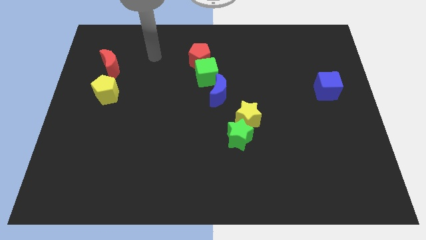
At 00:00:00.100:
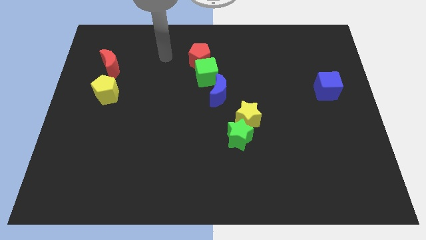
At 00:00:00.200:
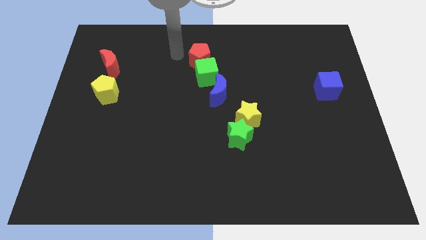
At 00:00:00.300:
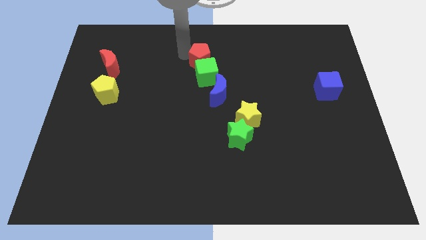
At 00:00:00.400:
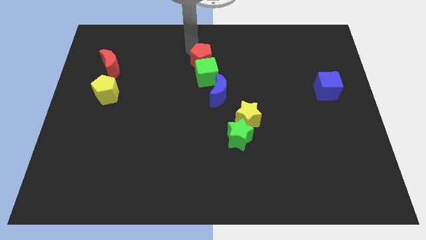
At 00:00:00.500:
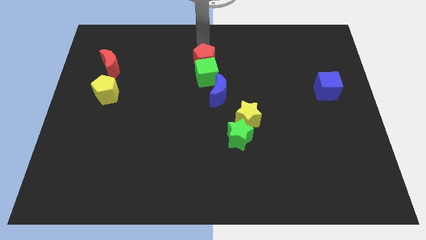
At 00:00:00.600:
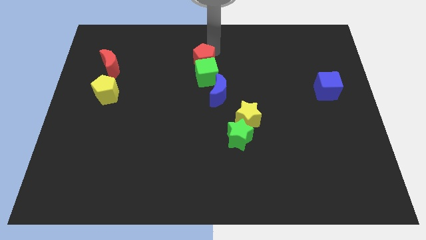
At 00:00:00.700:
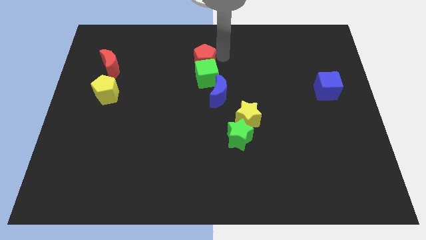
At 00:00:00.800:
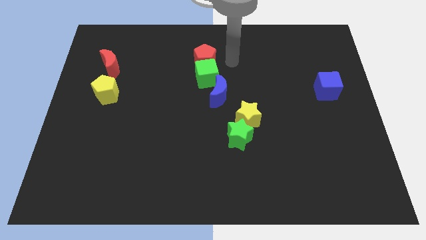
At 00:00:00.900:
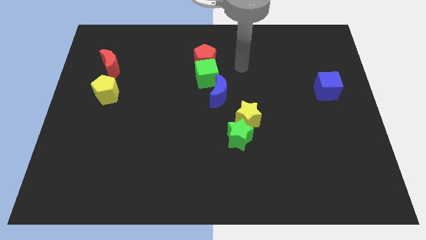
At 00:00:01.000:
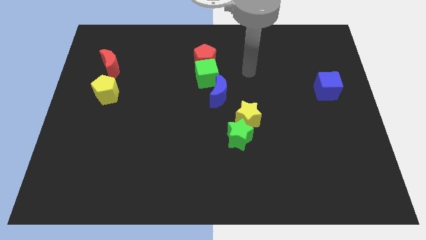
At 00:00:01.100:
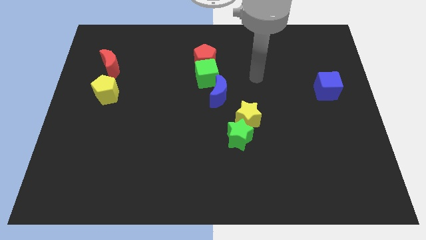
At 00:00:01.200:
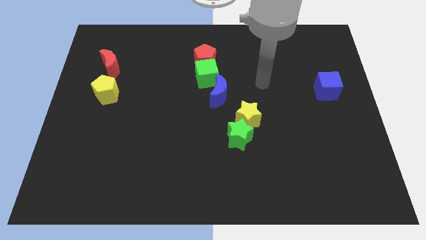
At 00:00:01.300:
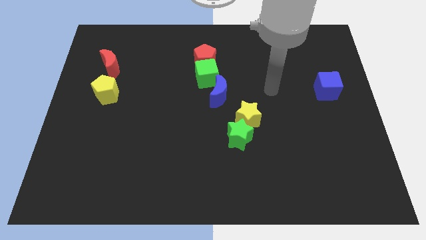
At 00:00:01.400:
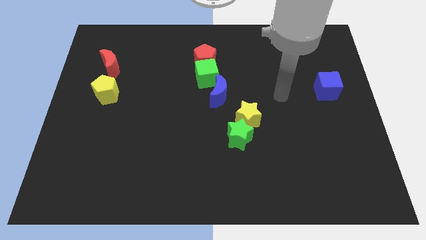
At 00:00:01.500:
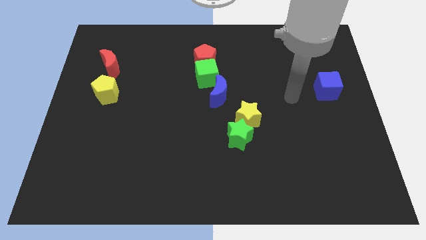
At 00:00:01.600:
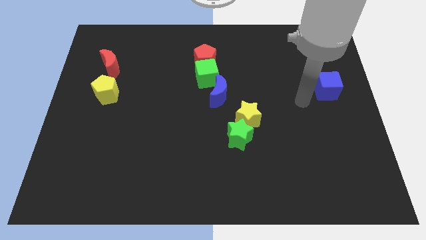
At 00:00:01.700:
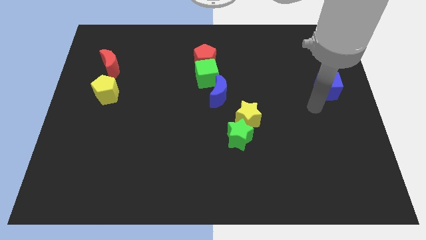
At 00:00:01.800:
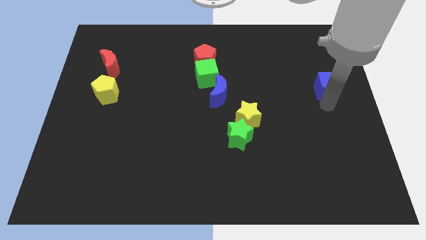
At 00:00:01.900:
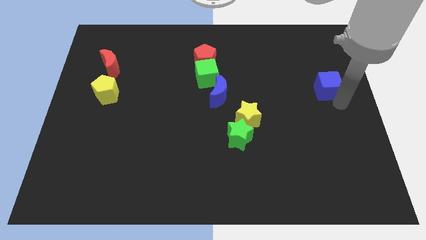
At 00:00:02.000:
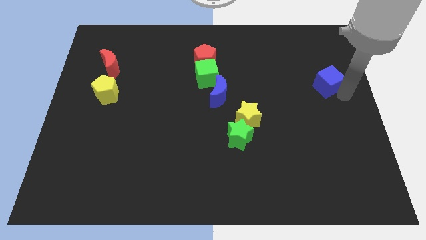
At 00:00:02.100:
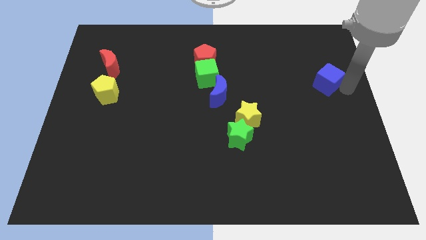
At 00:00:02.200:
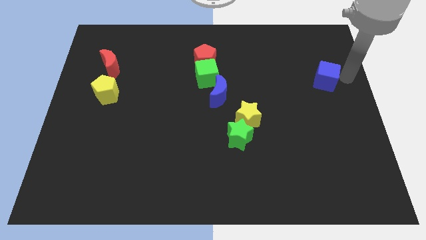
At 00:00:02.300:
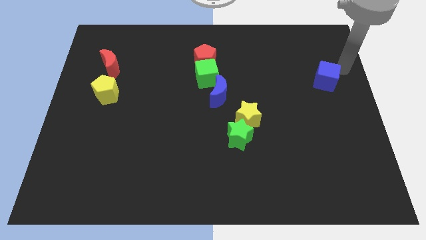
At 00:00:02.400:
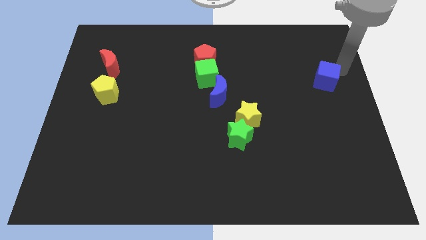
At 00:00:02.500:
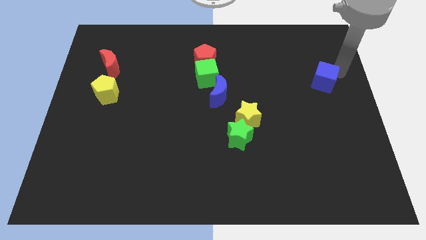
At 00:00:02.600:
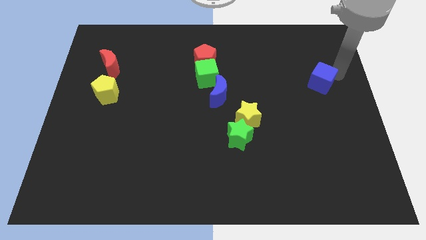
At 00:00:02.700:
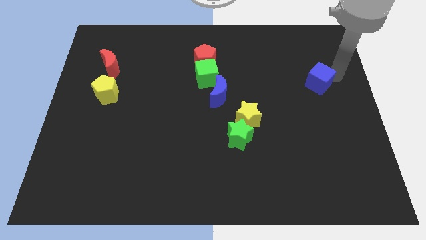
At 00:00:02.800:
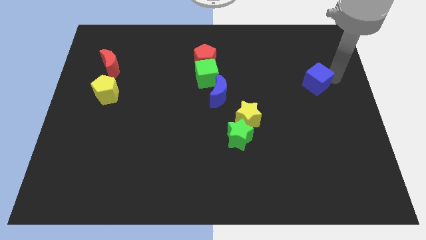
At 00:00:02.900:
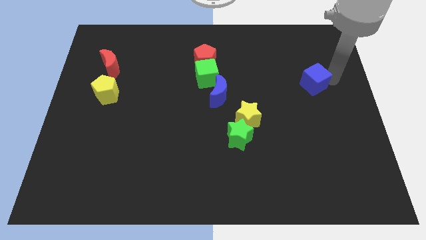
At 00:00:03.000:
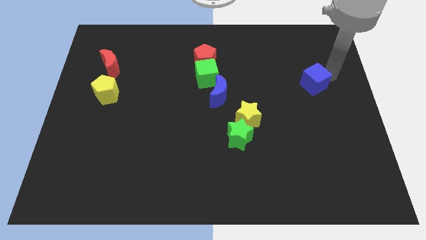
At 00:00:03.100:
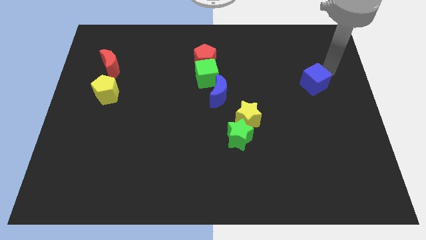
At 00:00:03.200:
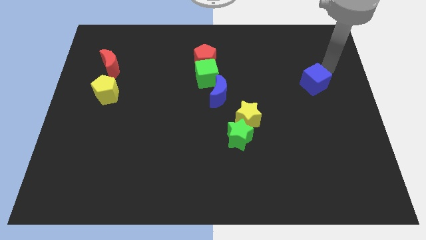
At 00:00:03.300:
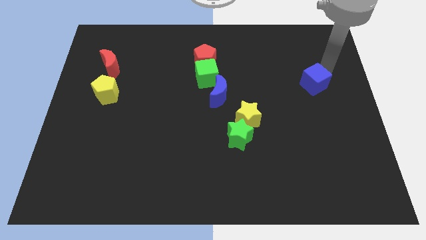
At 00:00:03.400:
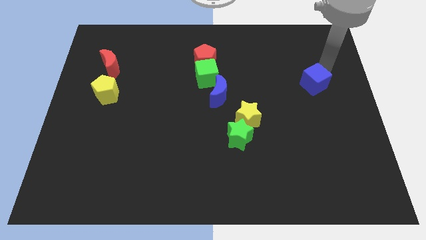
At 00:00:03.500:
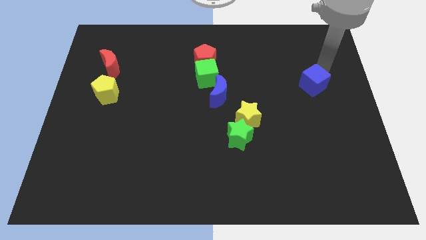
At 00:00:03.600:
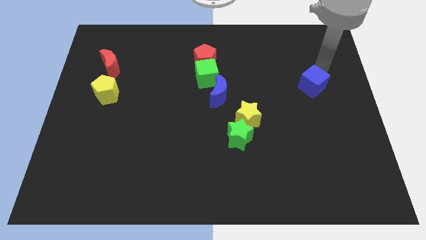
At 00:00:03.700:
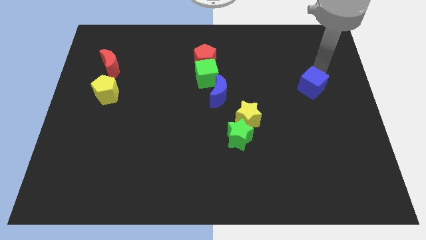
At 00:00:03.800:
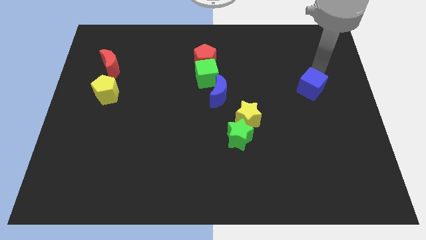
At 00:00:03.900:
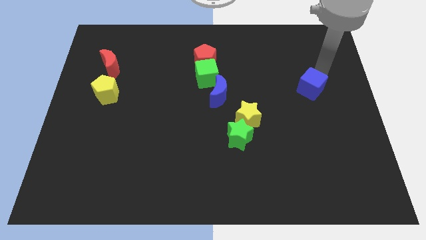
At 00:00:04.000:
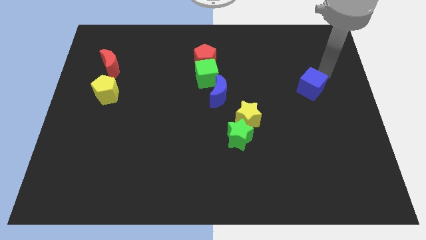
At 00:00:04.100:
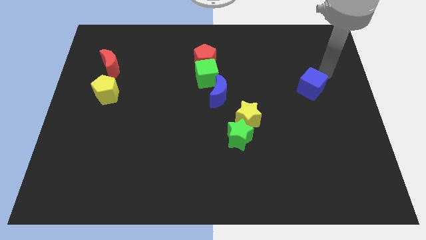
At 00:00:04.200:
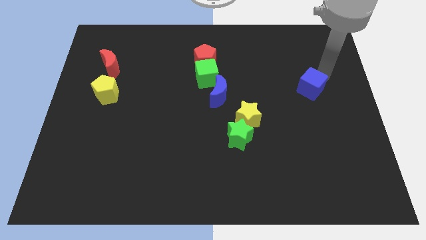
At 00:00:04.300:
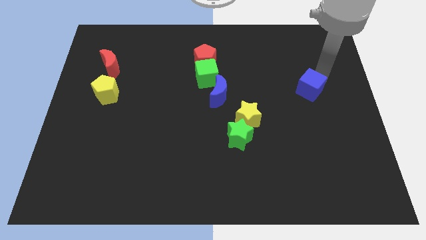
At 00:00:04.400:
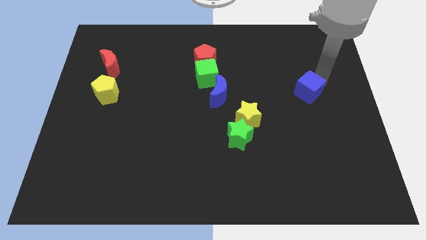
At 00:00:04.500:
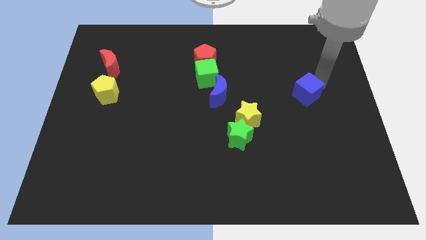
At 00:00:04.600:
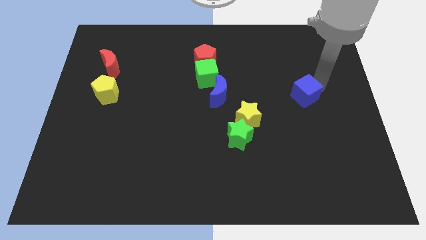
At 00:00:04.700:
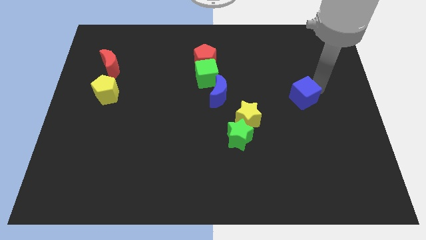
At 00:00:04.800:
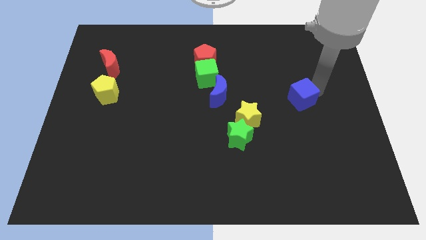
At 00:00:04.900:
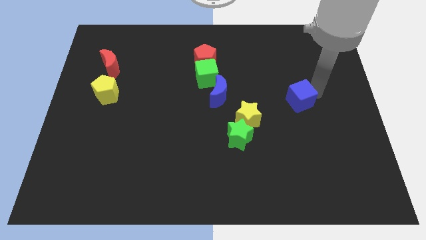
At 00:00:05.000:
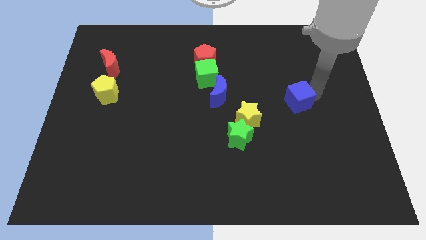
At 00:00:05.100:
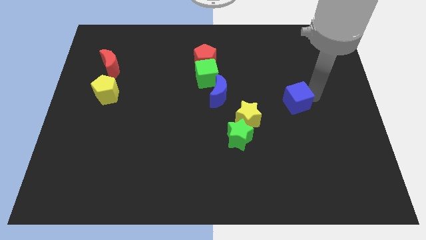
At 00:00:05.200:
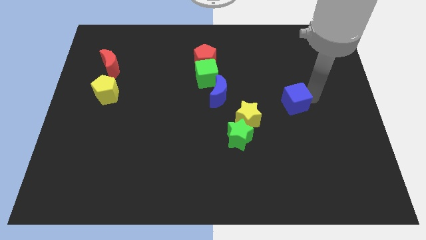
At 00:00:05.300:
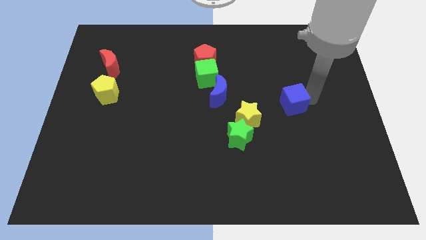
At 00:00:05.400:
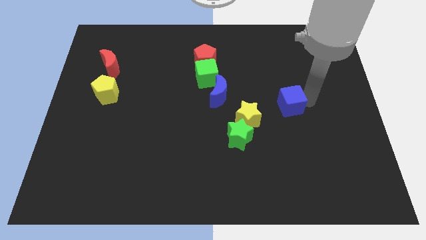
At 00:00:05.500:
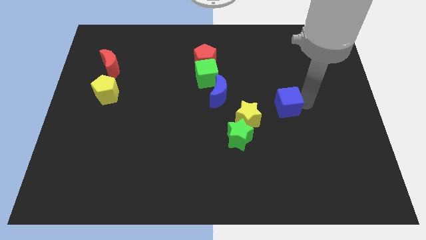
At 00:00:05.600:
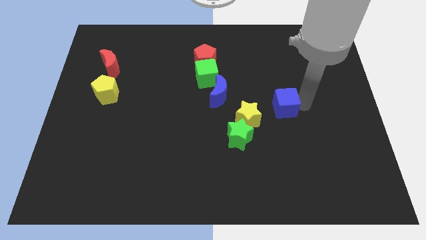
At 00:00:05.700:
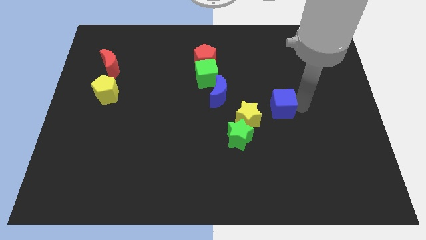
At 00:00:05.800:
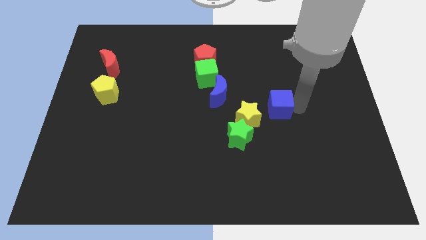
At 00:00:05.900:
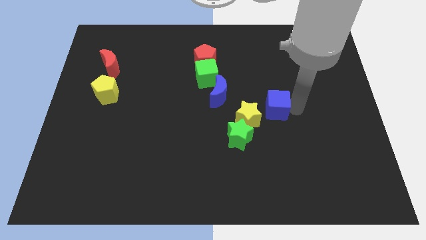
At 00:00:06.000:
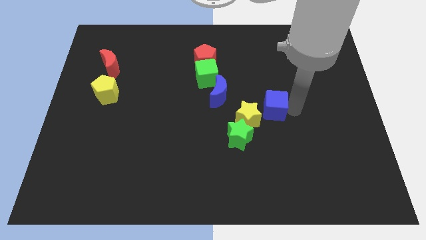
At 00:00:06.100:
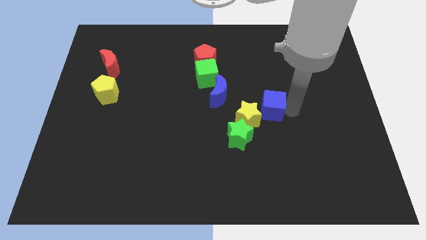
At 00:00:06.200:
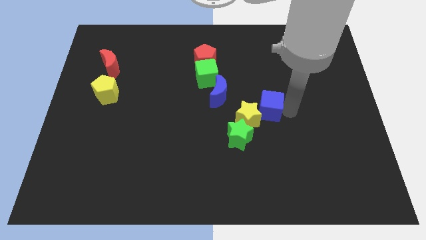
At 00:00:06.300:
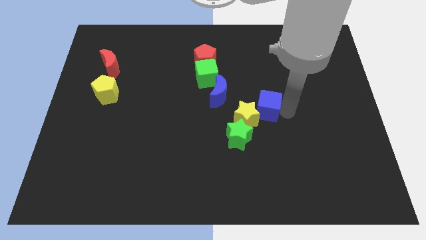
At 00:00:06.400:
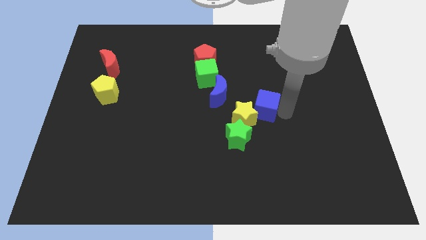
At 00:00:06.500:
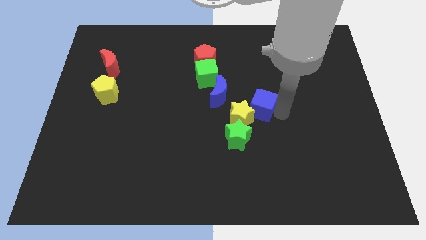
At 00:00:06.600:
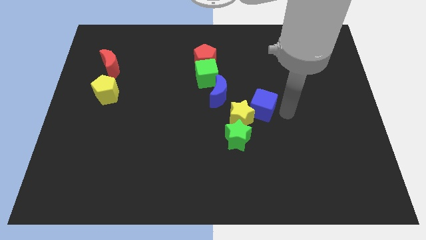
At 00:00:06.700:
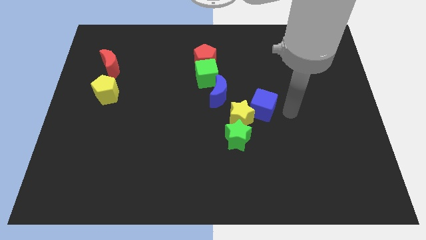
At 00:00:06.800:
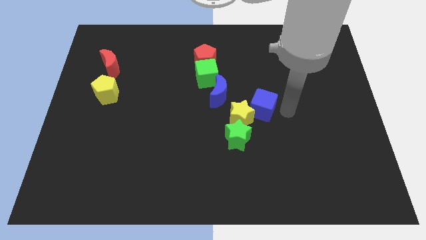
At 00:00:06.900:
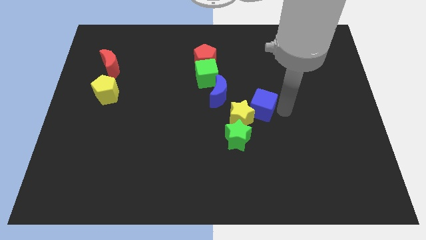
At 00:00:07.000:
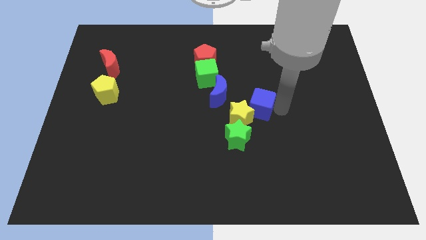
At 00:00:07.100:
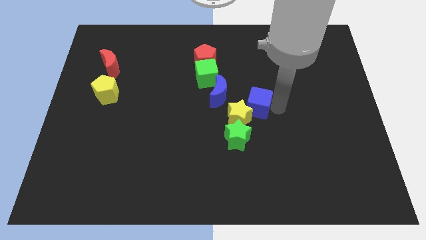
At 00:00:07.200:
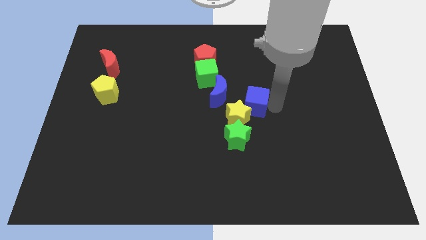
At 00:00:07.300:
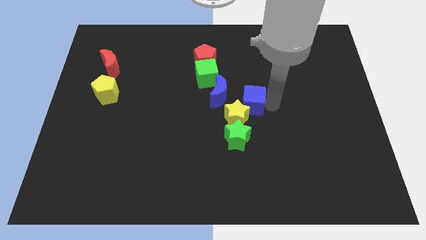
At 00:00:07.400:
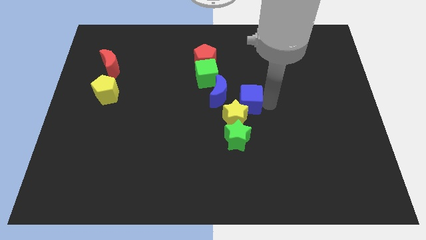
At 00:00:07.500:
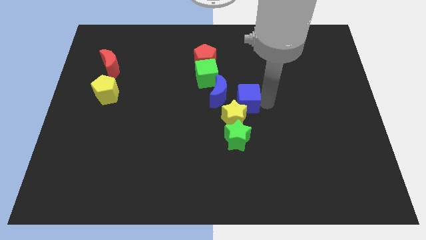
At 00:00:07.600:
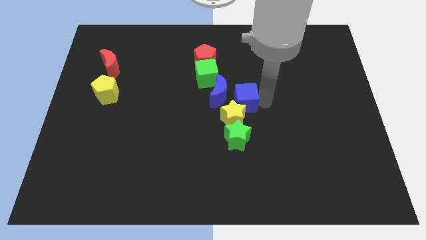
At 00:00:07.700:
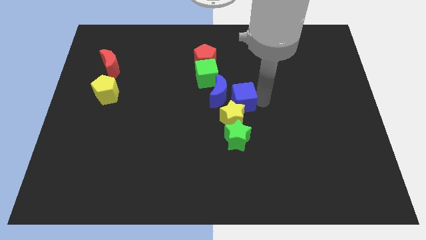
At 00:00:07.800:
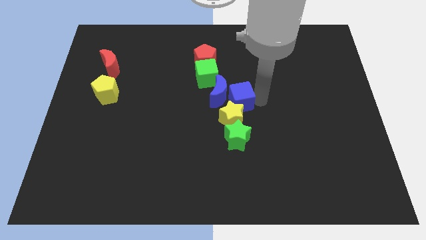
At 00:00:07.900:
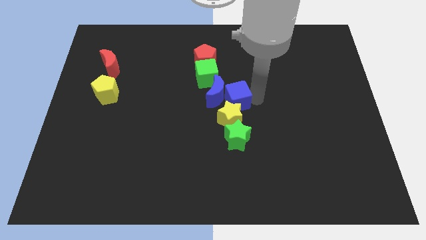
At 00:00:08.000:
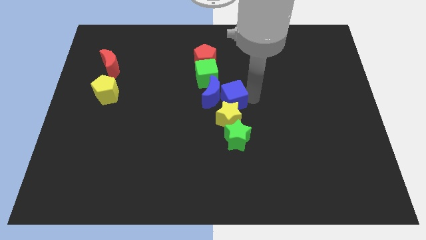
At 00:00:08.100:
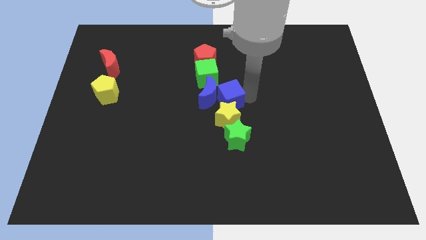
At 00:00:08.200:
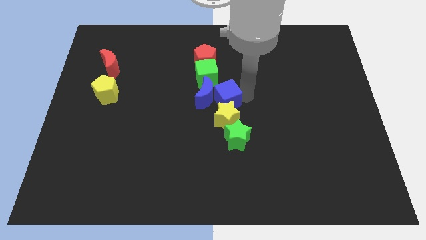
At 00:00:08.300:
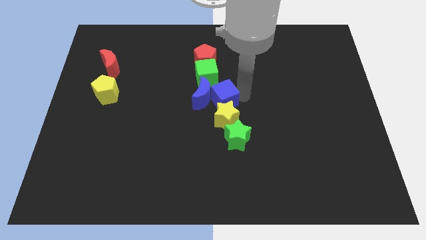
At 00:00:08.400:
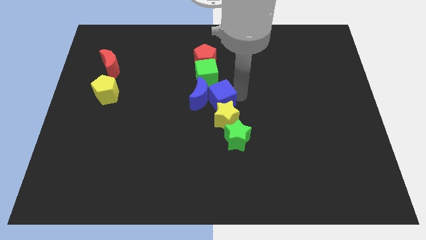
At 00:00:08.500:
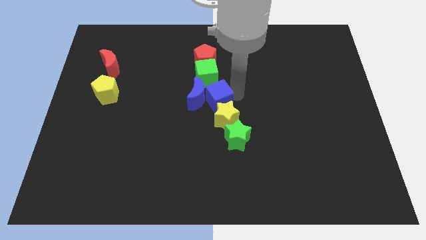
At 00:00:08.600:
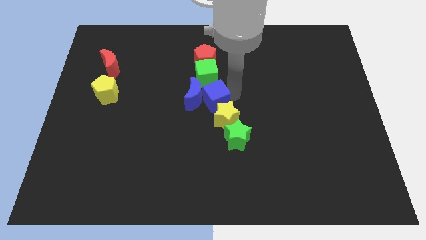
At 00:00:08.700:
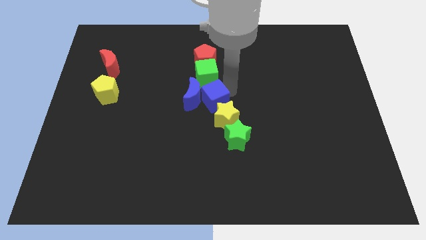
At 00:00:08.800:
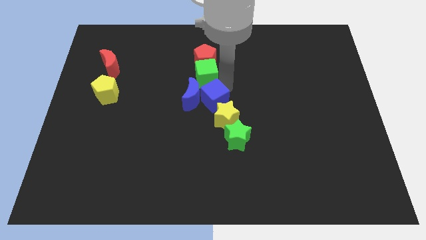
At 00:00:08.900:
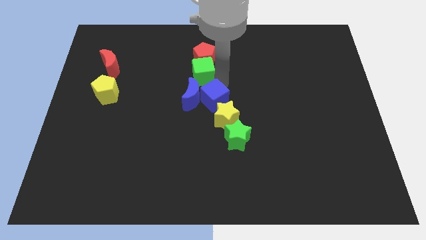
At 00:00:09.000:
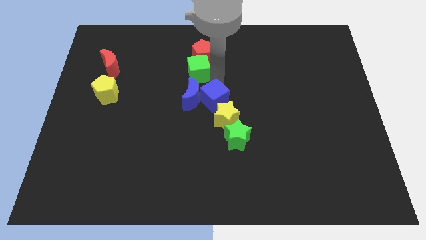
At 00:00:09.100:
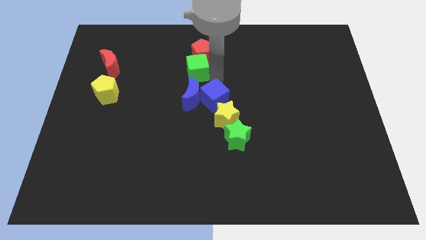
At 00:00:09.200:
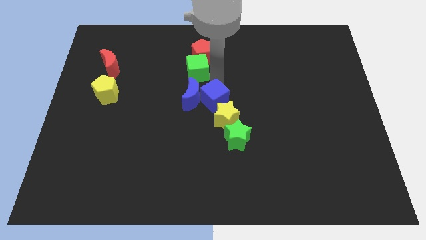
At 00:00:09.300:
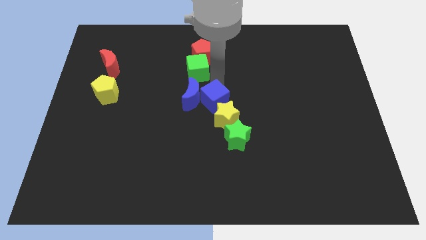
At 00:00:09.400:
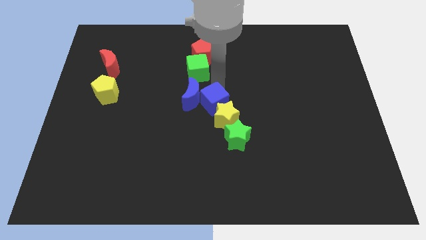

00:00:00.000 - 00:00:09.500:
slide the blue cube to the top left of the green star
